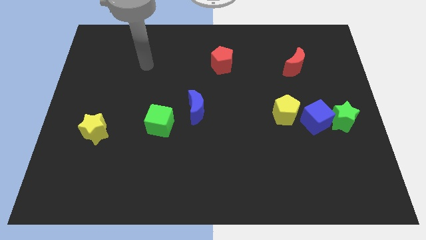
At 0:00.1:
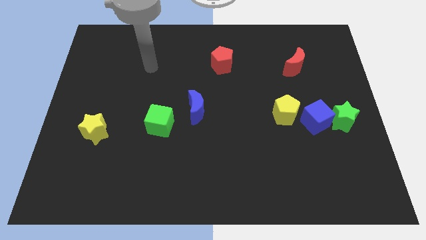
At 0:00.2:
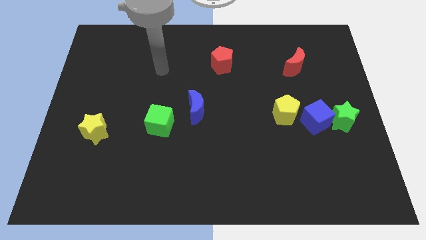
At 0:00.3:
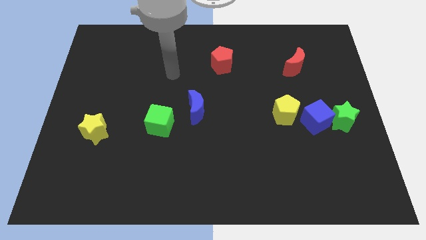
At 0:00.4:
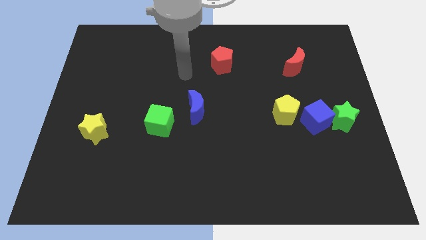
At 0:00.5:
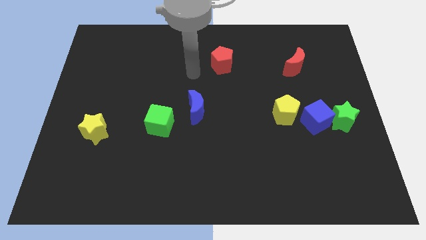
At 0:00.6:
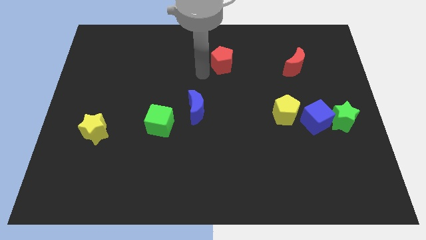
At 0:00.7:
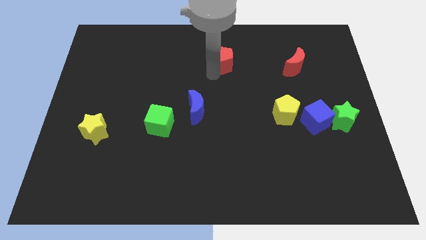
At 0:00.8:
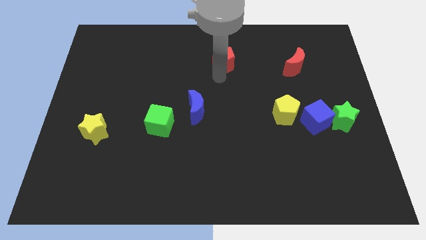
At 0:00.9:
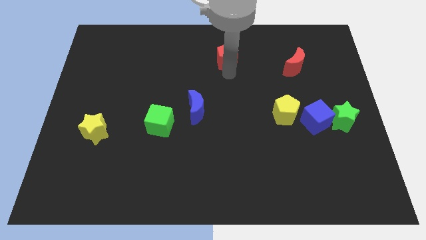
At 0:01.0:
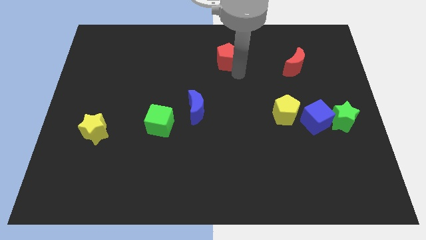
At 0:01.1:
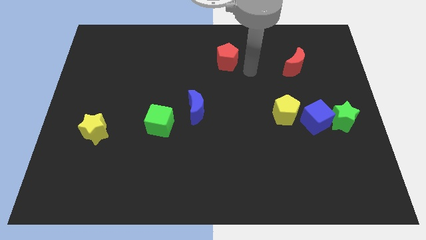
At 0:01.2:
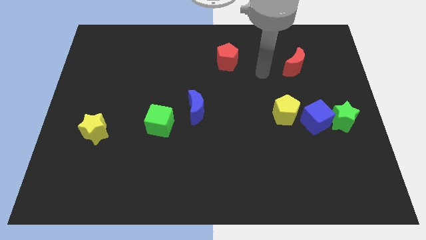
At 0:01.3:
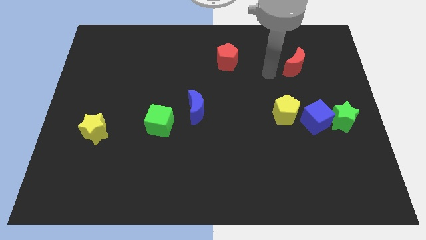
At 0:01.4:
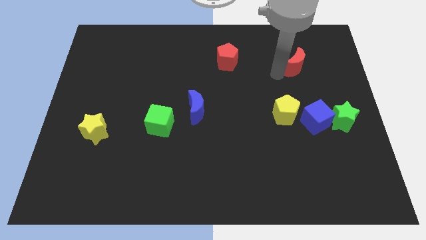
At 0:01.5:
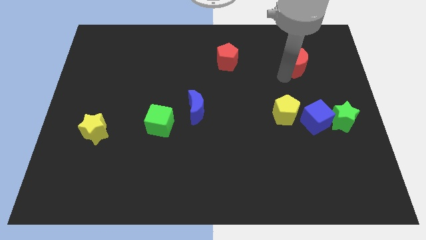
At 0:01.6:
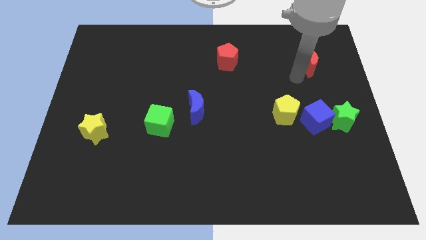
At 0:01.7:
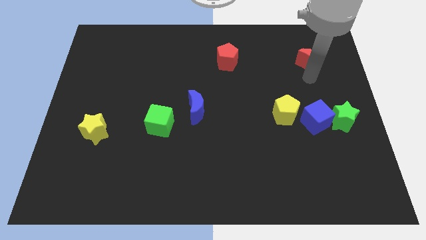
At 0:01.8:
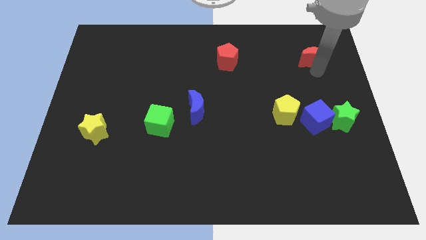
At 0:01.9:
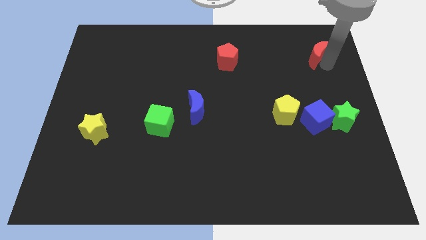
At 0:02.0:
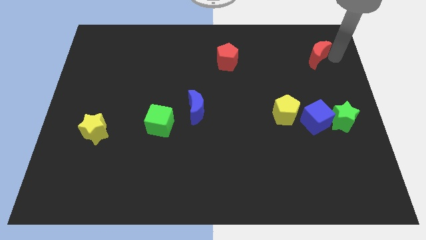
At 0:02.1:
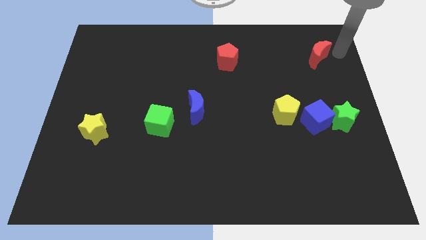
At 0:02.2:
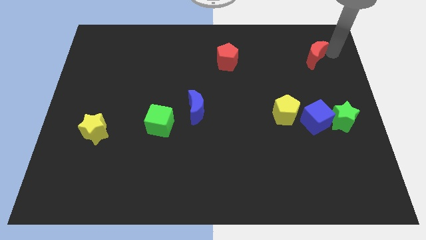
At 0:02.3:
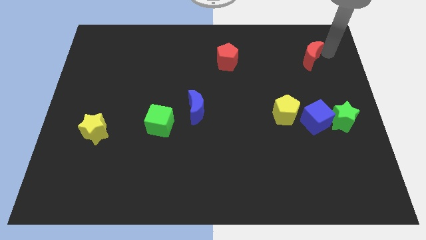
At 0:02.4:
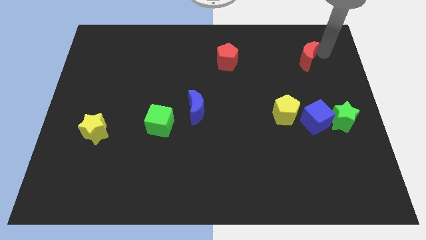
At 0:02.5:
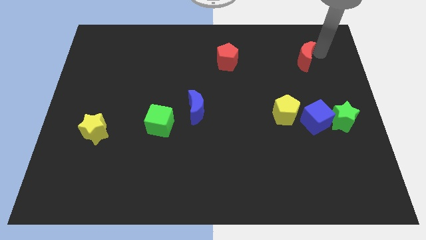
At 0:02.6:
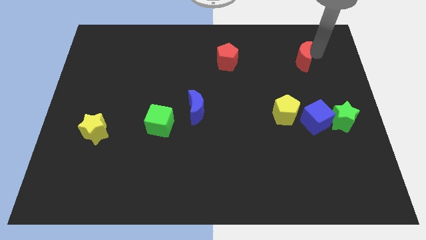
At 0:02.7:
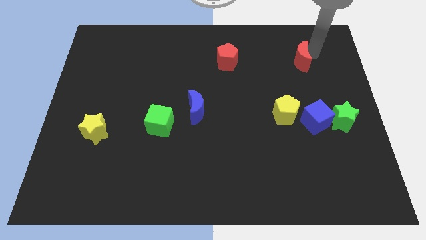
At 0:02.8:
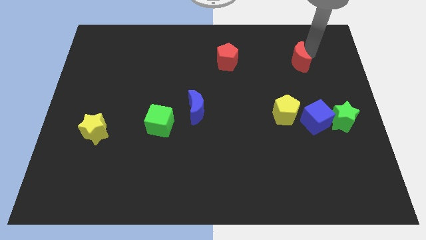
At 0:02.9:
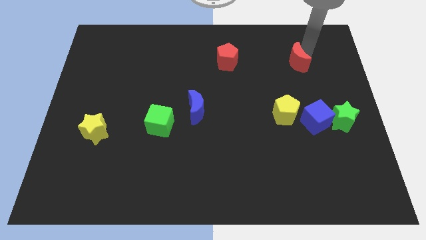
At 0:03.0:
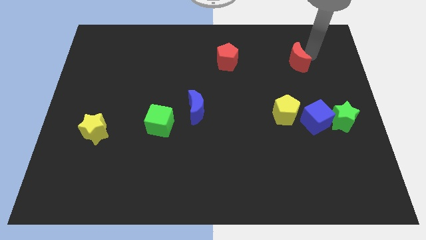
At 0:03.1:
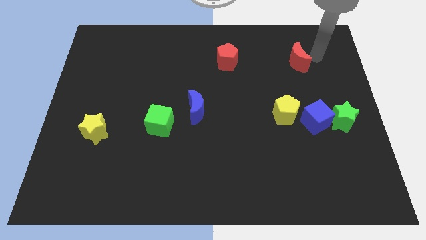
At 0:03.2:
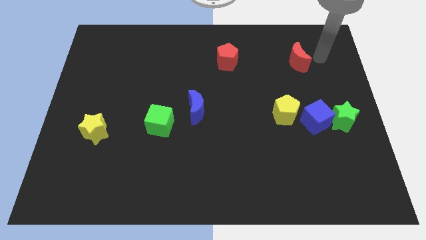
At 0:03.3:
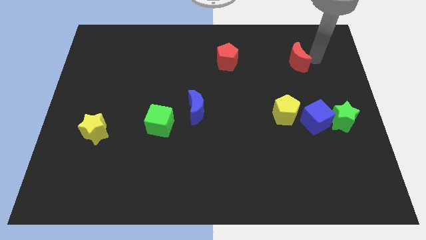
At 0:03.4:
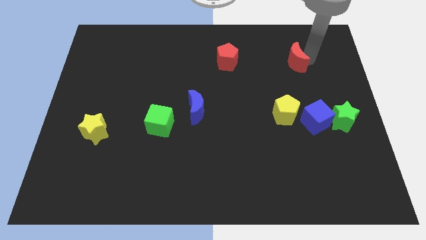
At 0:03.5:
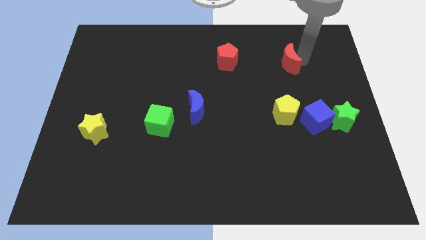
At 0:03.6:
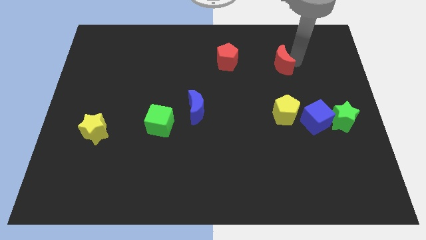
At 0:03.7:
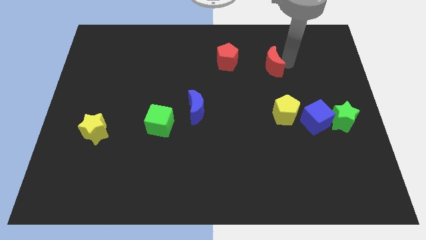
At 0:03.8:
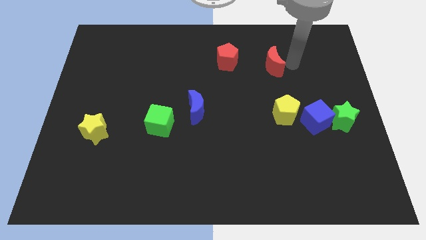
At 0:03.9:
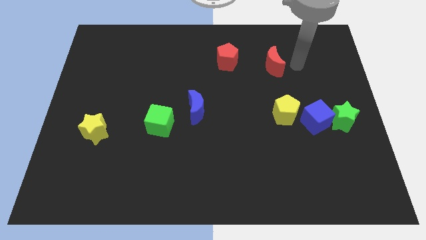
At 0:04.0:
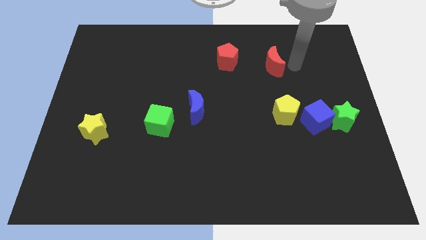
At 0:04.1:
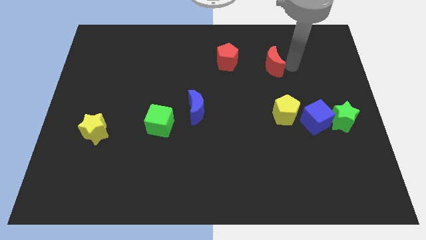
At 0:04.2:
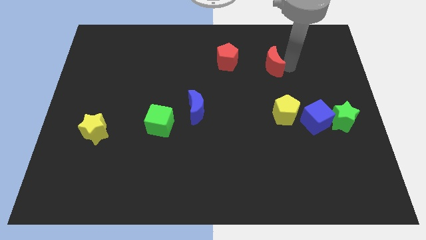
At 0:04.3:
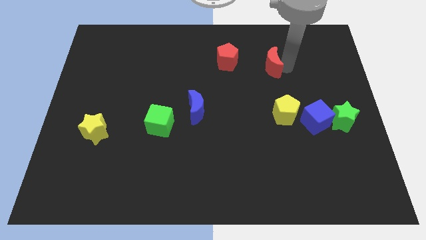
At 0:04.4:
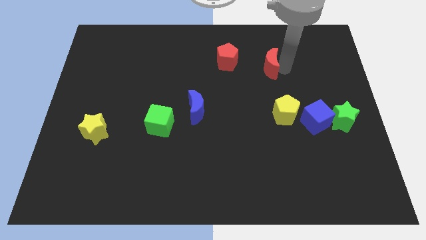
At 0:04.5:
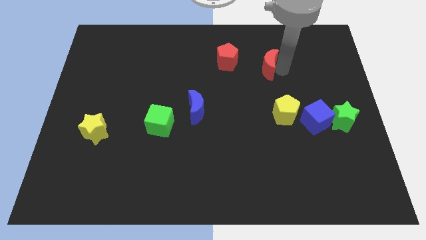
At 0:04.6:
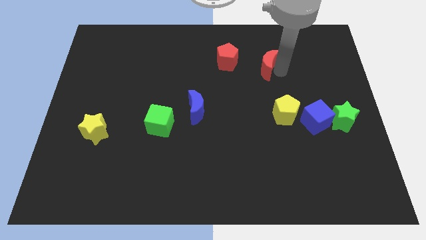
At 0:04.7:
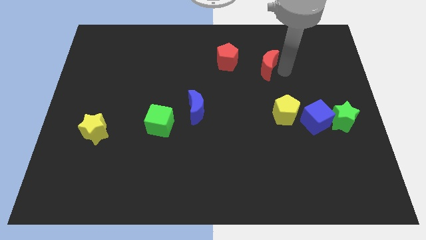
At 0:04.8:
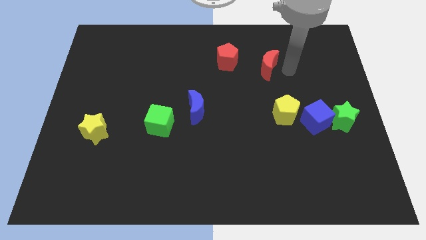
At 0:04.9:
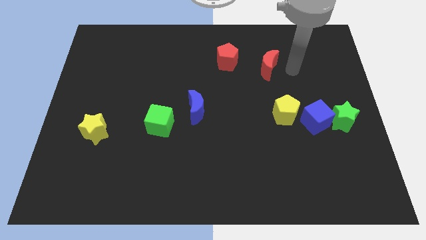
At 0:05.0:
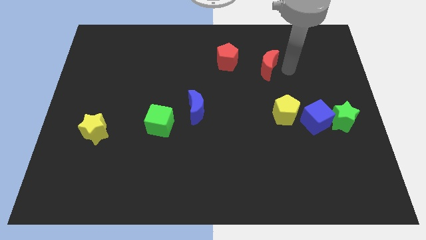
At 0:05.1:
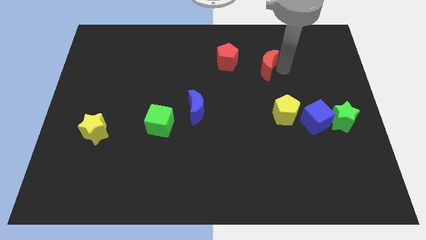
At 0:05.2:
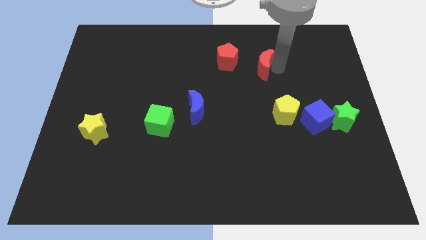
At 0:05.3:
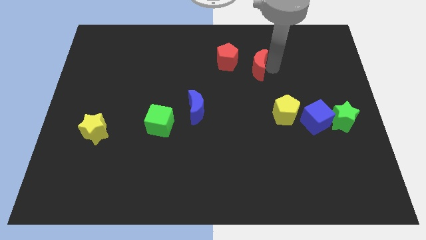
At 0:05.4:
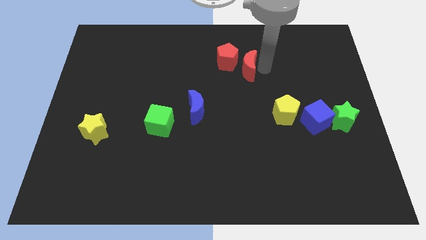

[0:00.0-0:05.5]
slide the red moon close to the red pentagon

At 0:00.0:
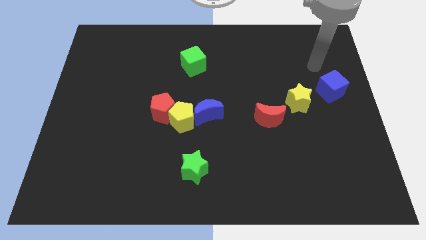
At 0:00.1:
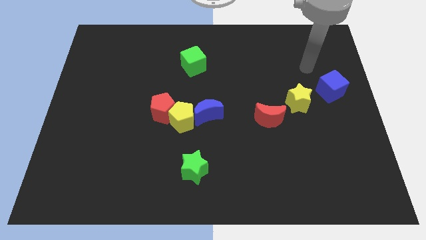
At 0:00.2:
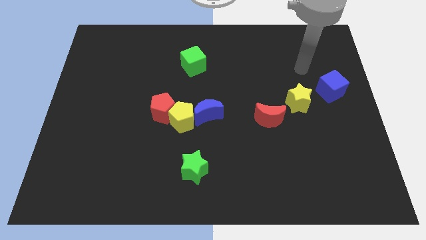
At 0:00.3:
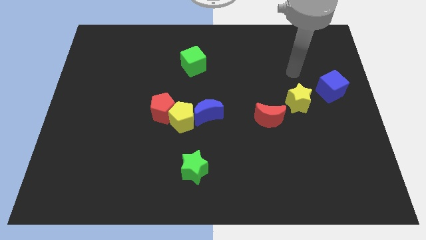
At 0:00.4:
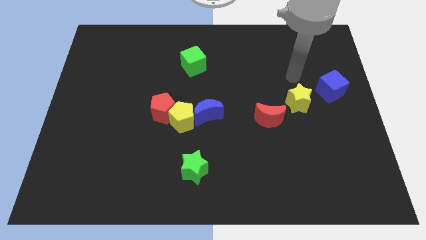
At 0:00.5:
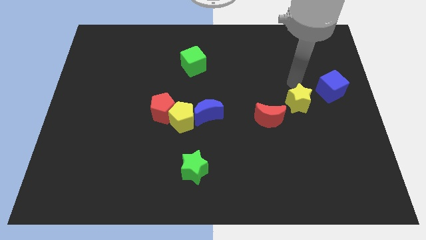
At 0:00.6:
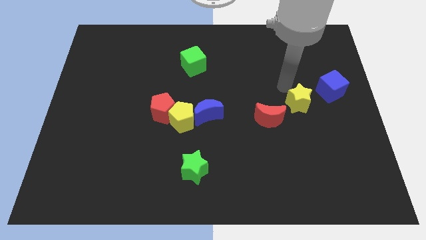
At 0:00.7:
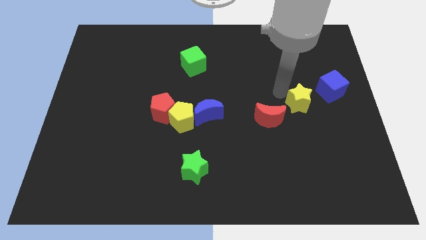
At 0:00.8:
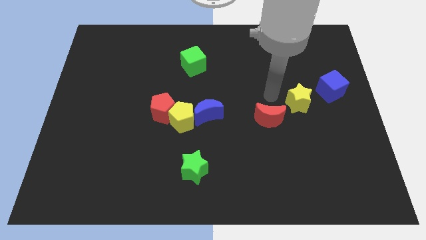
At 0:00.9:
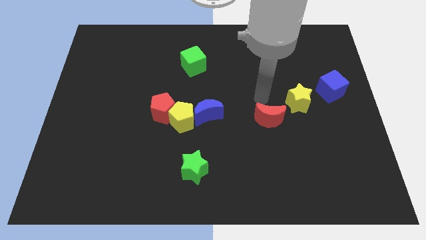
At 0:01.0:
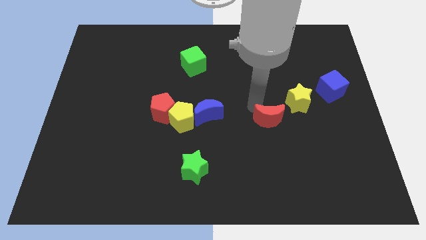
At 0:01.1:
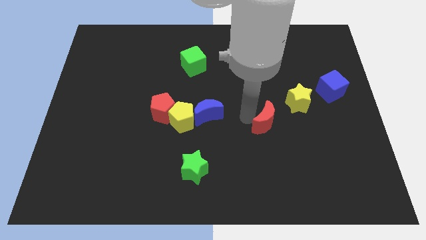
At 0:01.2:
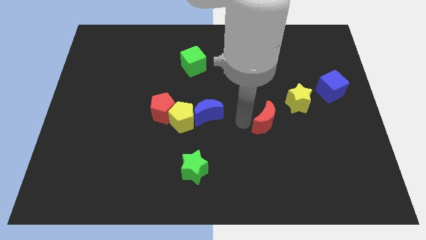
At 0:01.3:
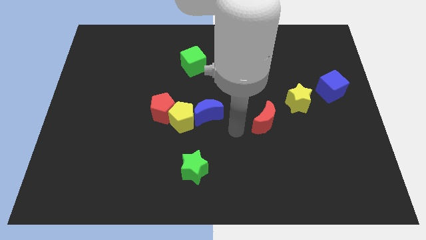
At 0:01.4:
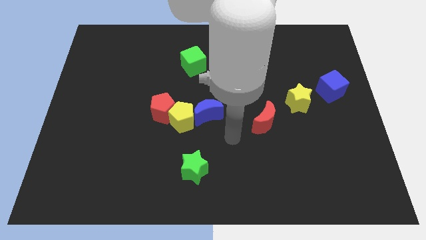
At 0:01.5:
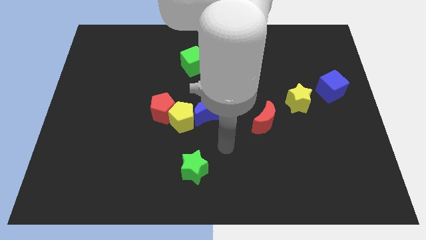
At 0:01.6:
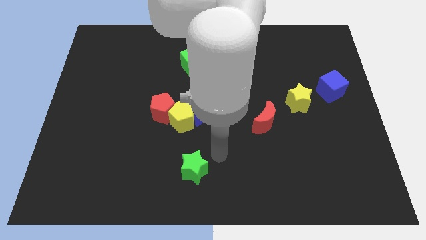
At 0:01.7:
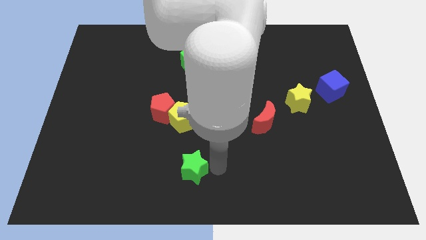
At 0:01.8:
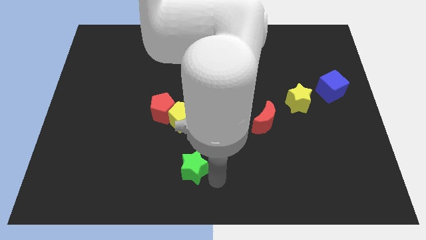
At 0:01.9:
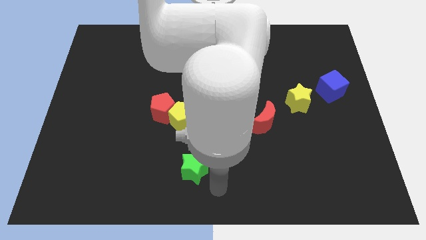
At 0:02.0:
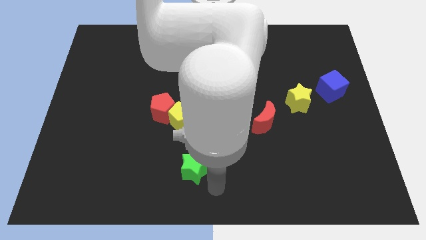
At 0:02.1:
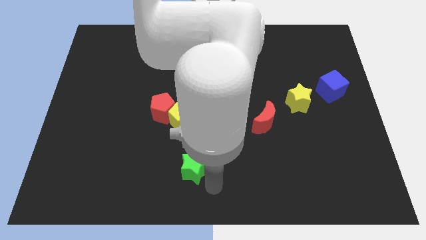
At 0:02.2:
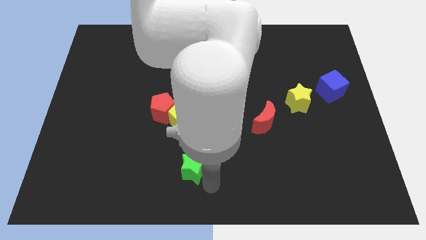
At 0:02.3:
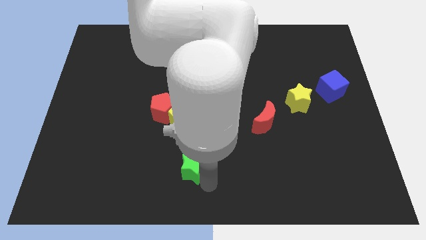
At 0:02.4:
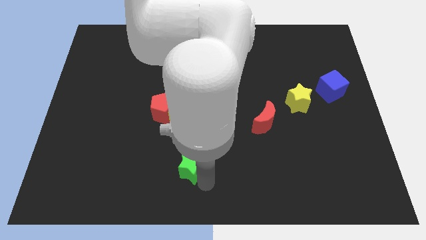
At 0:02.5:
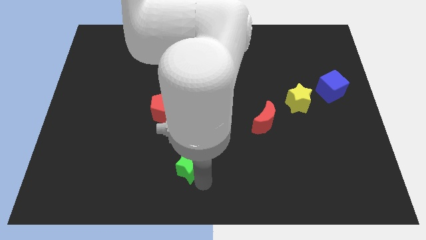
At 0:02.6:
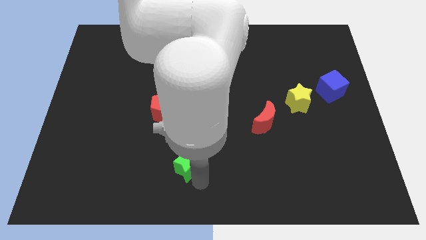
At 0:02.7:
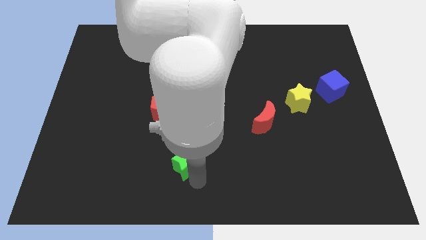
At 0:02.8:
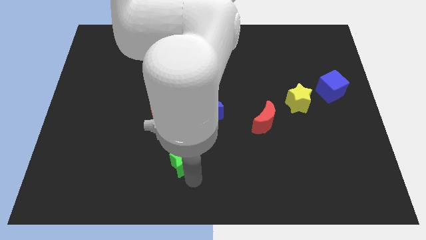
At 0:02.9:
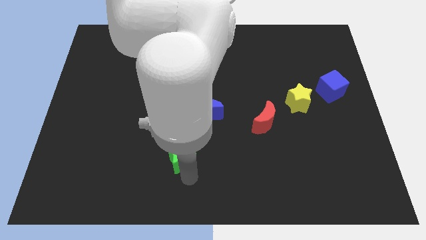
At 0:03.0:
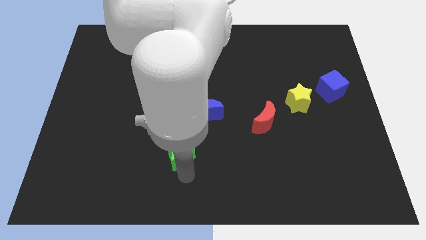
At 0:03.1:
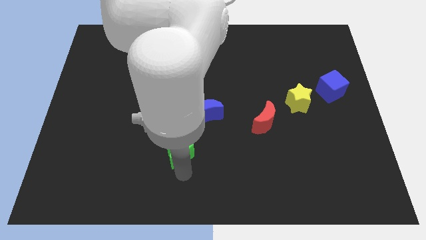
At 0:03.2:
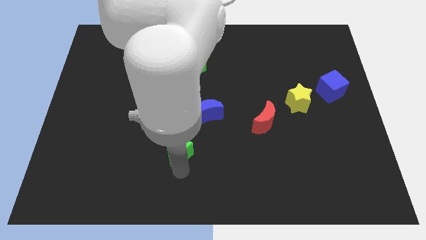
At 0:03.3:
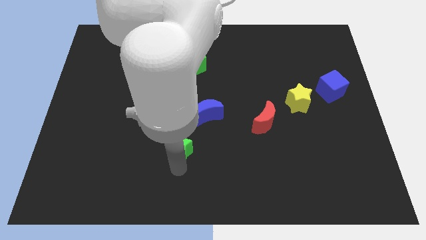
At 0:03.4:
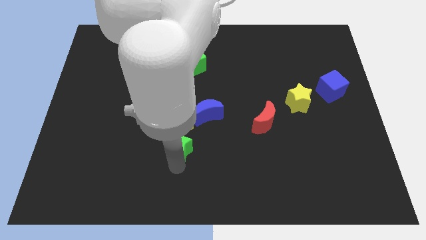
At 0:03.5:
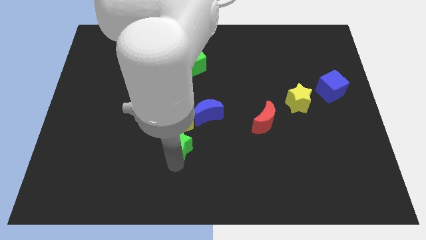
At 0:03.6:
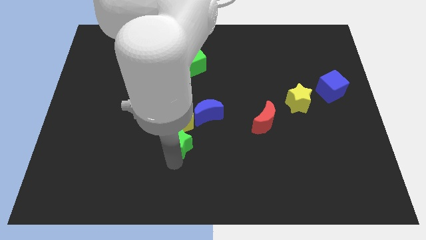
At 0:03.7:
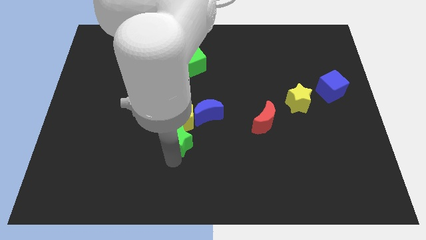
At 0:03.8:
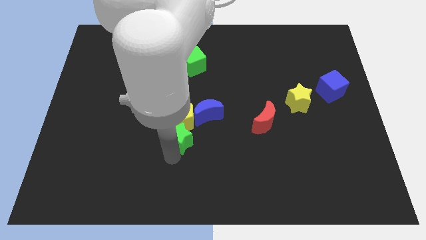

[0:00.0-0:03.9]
put the green star towards the yellow pentagon
